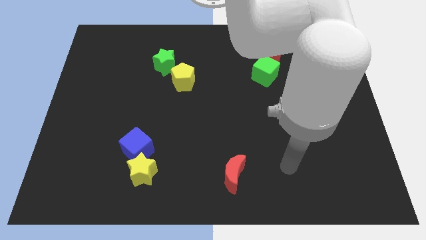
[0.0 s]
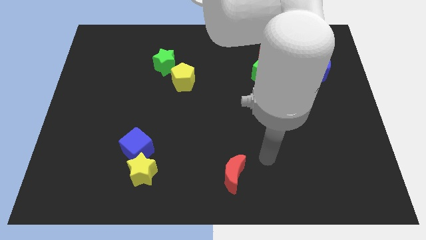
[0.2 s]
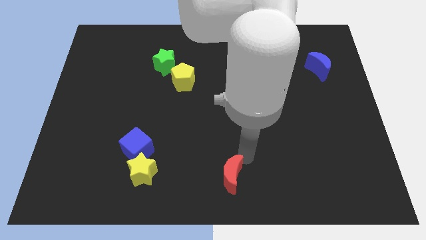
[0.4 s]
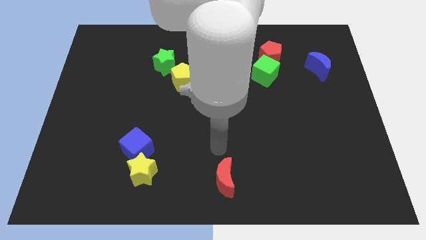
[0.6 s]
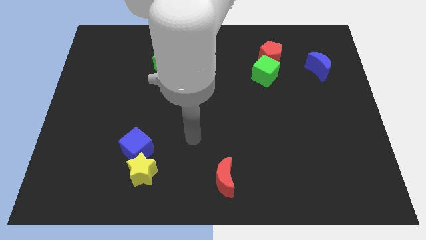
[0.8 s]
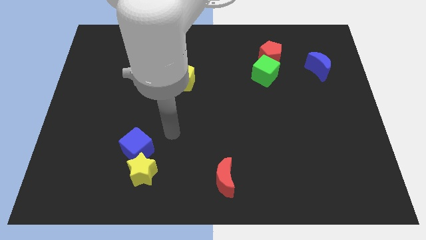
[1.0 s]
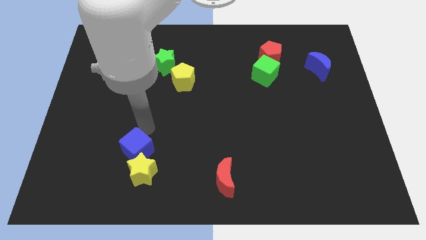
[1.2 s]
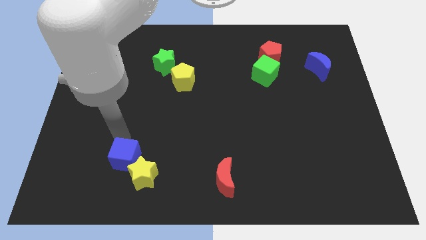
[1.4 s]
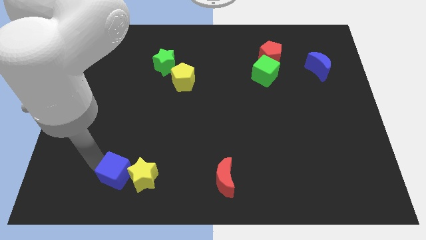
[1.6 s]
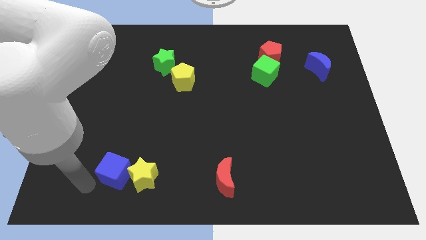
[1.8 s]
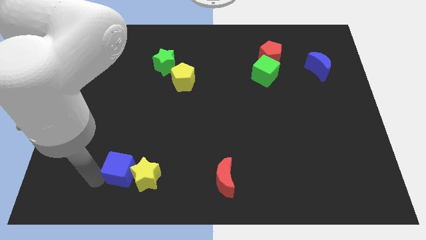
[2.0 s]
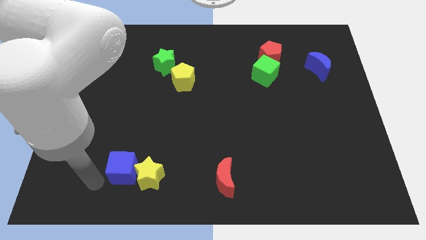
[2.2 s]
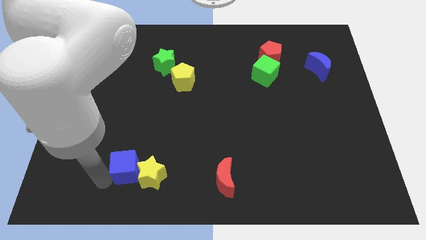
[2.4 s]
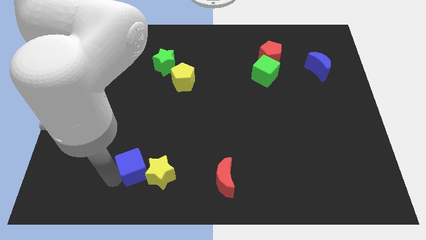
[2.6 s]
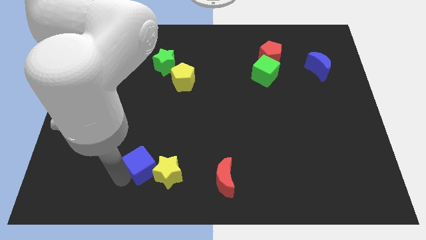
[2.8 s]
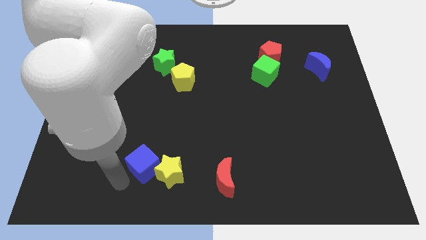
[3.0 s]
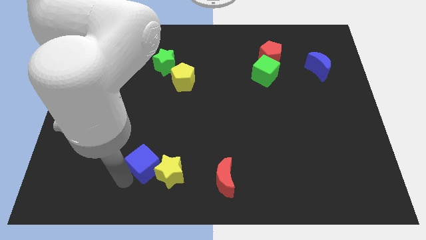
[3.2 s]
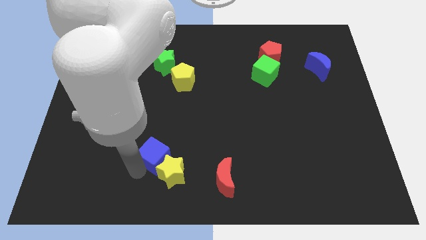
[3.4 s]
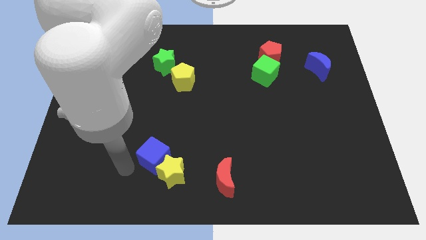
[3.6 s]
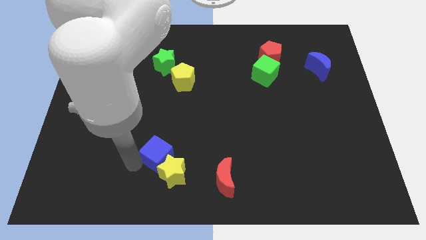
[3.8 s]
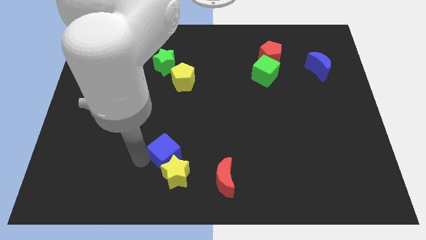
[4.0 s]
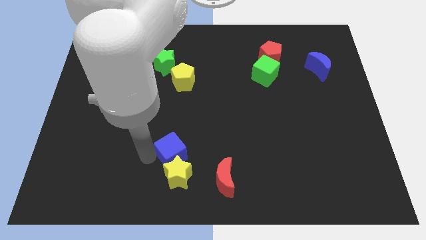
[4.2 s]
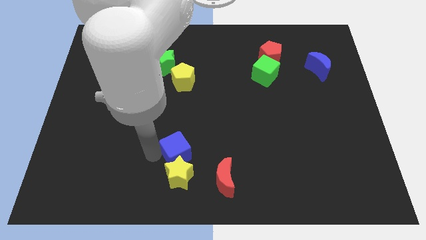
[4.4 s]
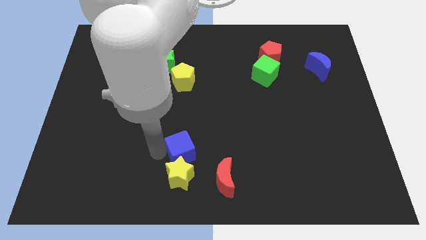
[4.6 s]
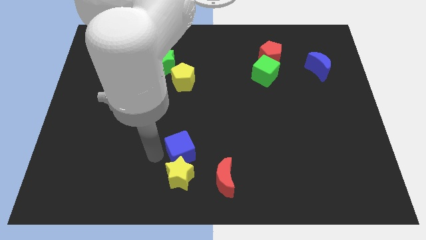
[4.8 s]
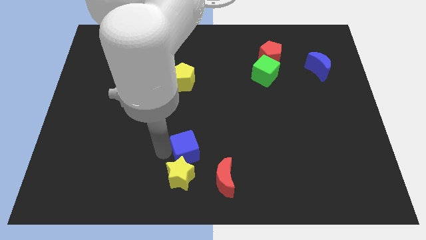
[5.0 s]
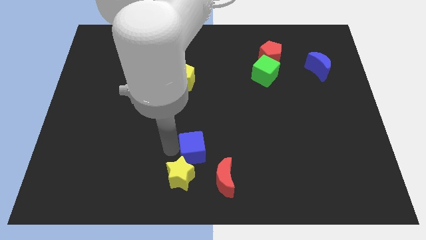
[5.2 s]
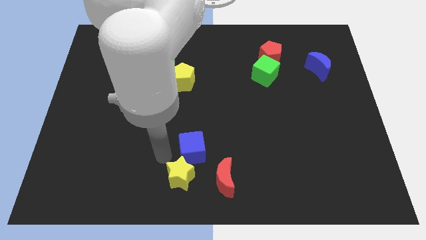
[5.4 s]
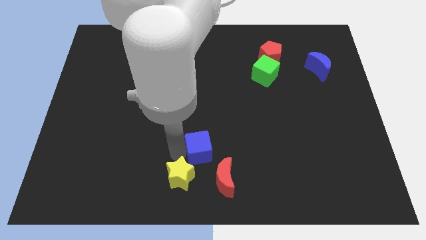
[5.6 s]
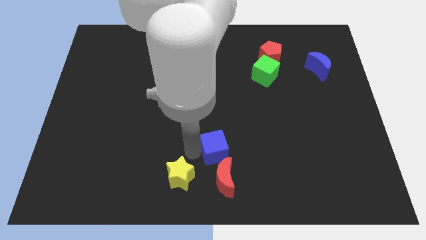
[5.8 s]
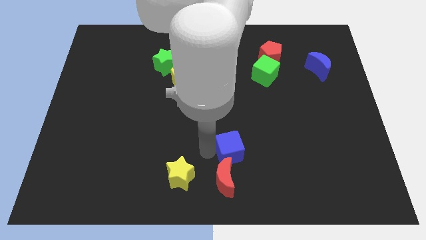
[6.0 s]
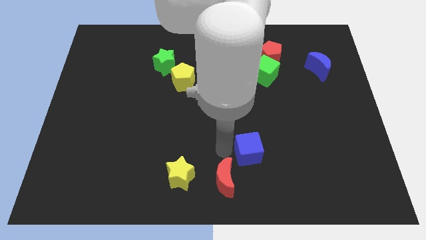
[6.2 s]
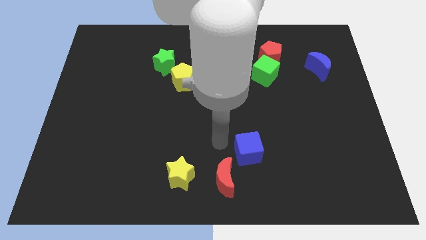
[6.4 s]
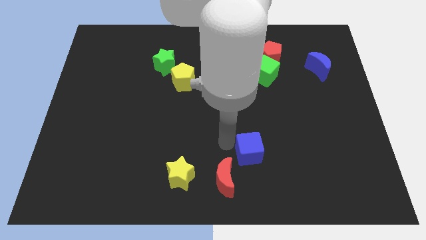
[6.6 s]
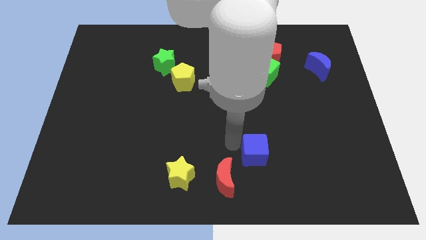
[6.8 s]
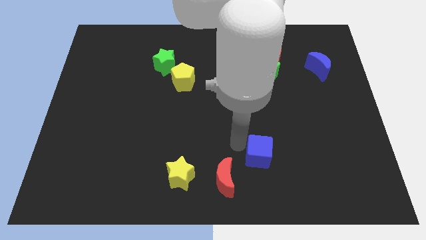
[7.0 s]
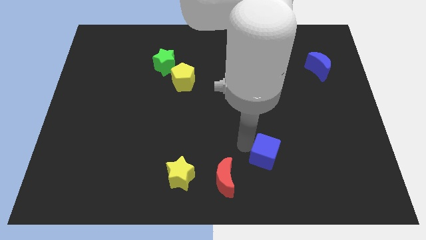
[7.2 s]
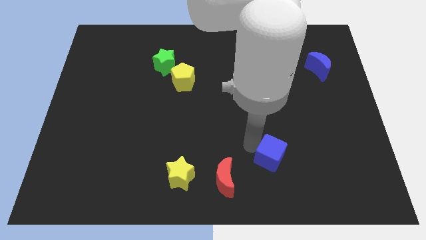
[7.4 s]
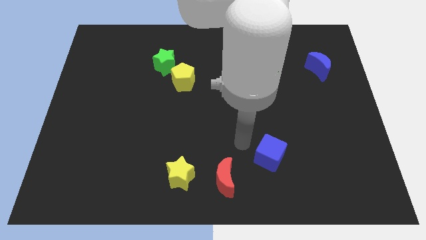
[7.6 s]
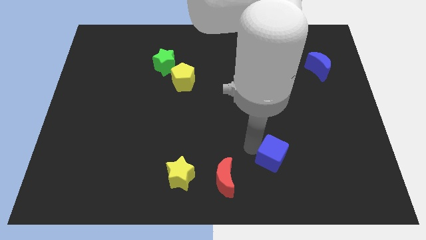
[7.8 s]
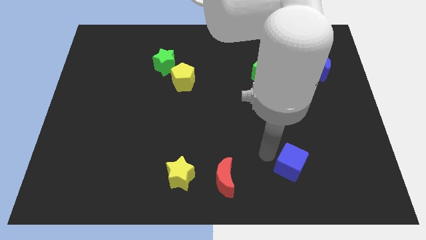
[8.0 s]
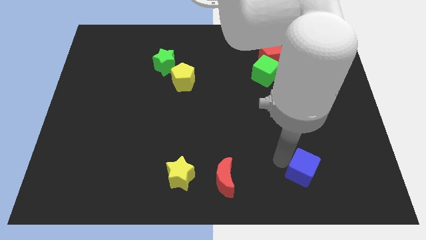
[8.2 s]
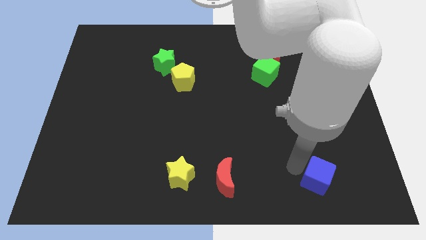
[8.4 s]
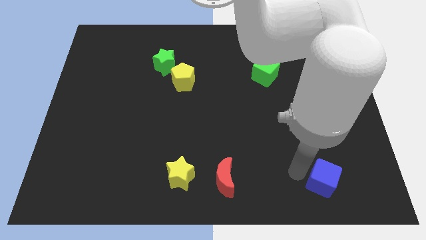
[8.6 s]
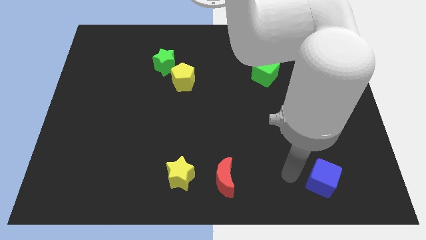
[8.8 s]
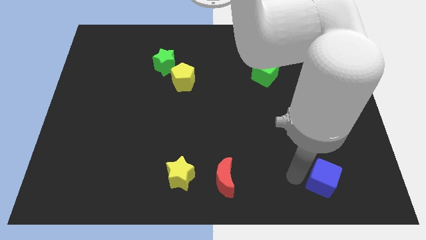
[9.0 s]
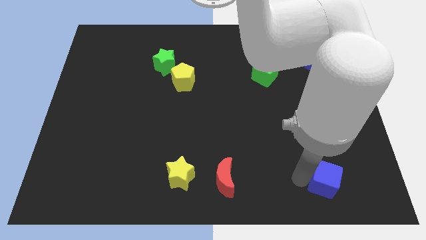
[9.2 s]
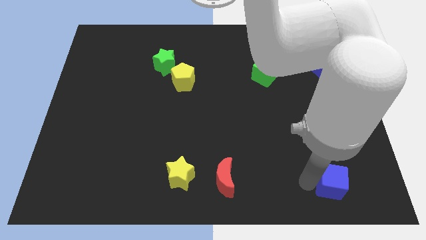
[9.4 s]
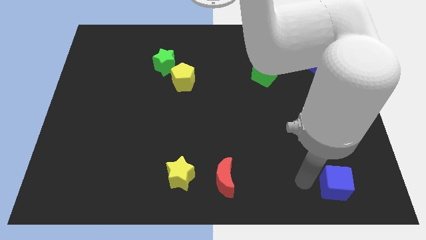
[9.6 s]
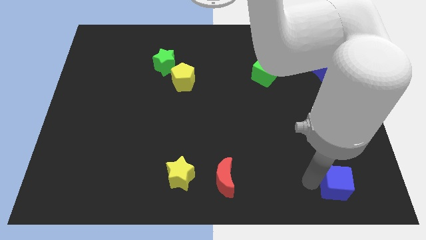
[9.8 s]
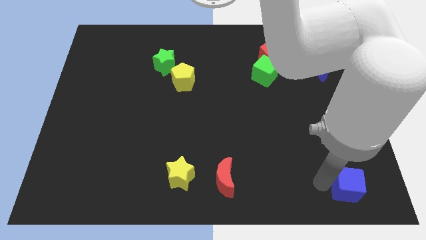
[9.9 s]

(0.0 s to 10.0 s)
put the blue cube to the bottom right
